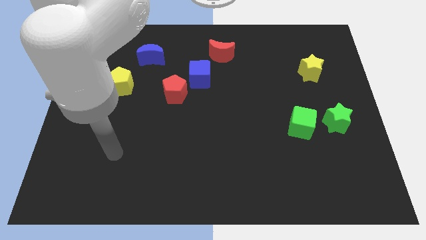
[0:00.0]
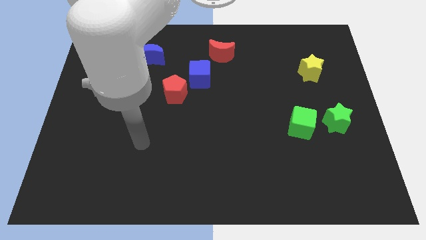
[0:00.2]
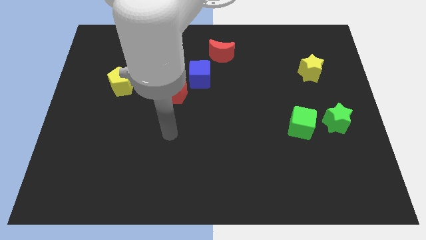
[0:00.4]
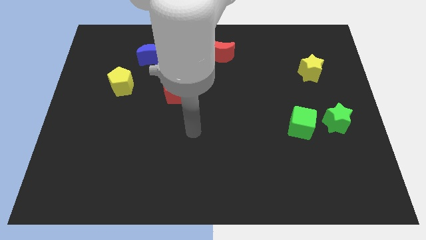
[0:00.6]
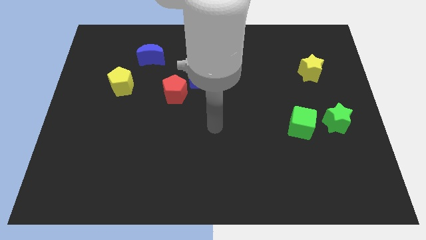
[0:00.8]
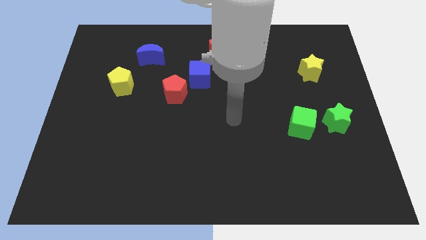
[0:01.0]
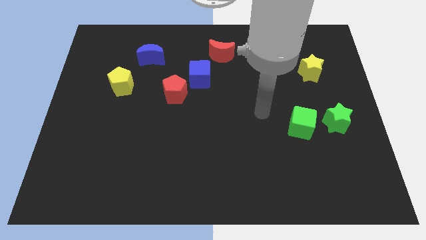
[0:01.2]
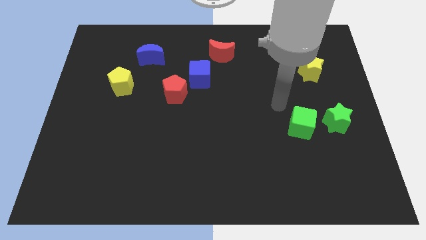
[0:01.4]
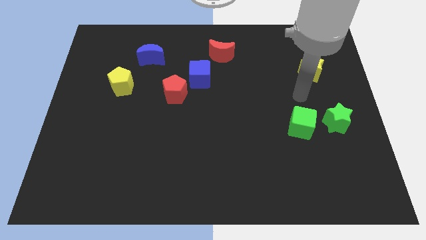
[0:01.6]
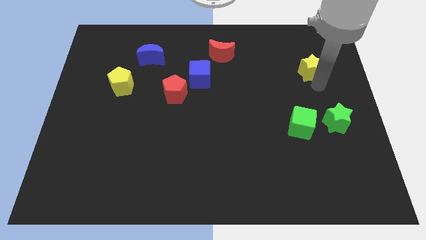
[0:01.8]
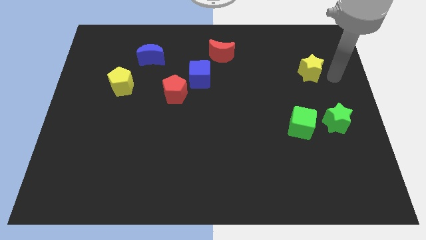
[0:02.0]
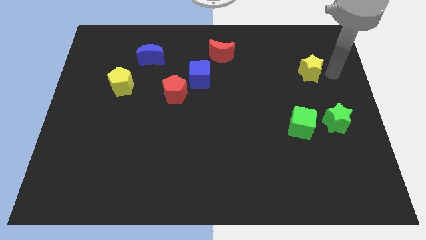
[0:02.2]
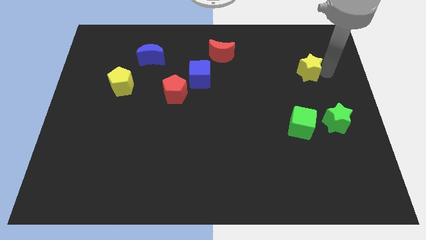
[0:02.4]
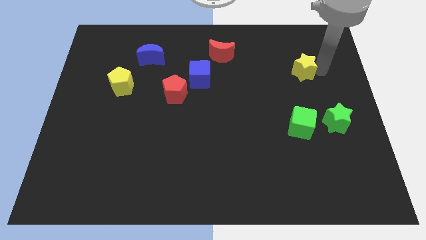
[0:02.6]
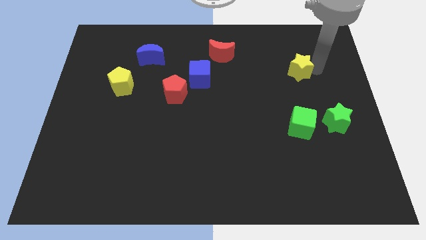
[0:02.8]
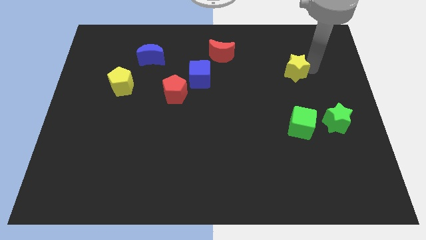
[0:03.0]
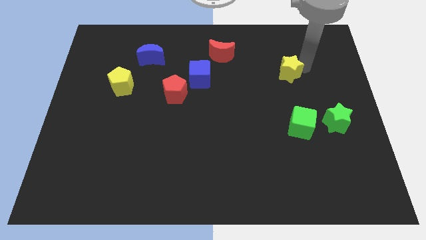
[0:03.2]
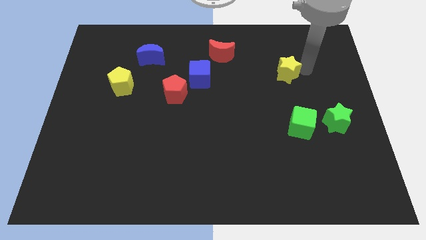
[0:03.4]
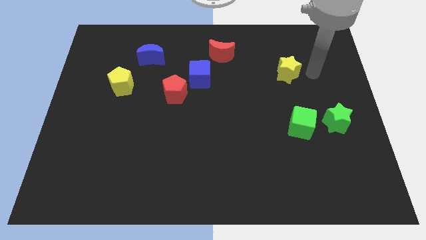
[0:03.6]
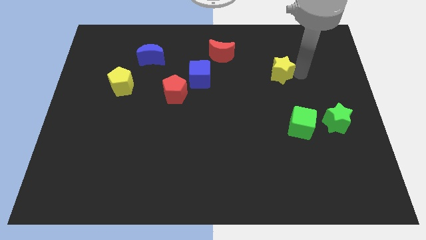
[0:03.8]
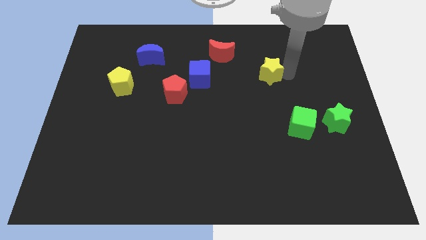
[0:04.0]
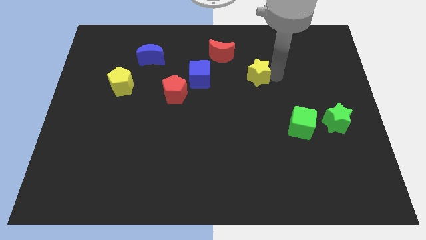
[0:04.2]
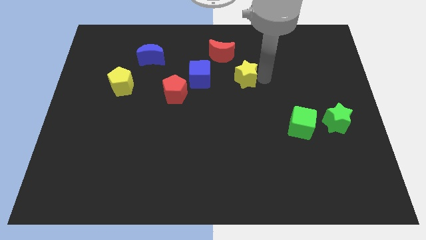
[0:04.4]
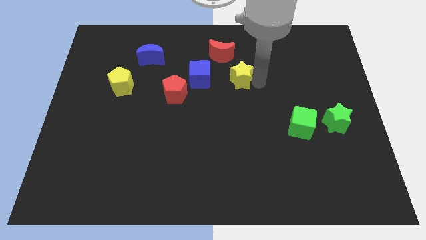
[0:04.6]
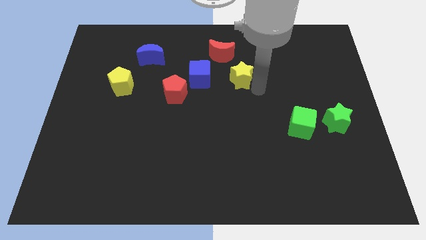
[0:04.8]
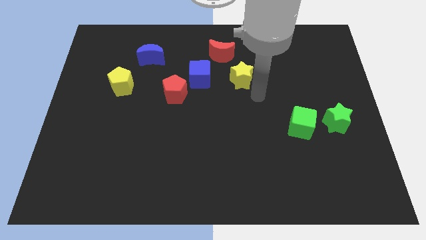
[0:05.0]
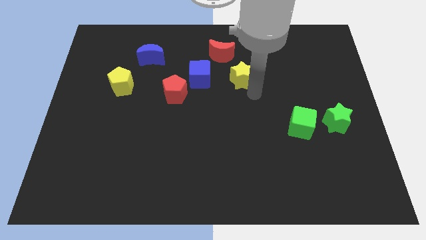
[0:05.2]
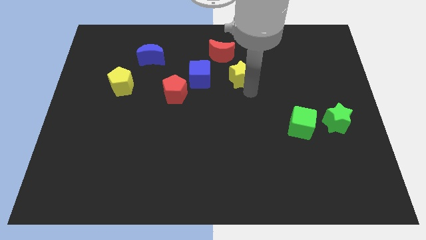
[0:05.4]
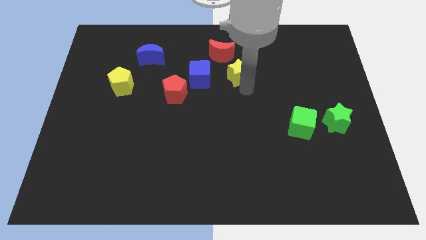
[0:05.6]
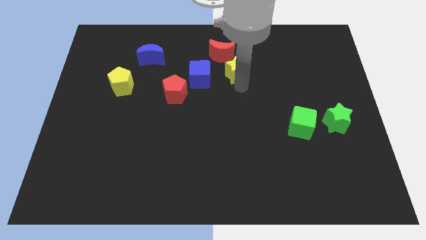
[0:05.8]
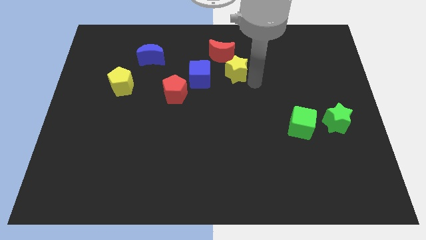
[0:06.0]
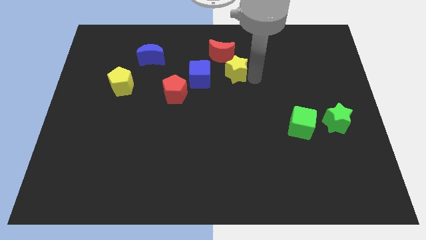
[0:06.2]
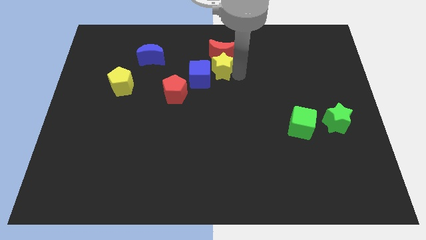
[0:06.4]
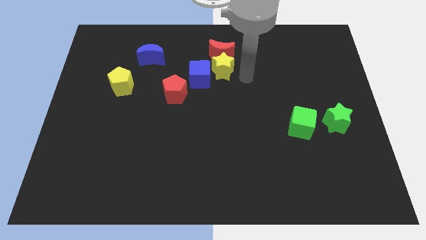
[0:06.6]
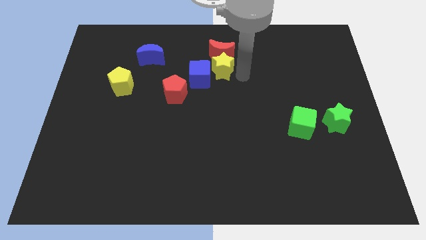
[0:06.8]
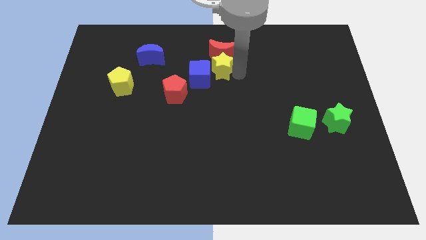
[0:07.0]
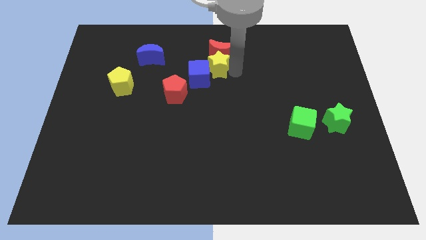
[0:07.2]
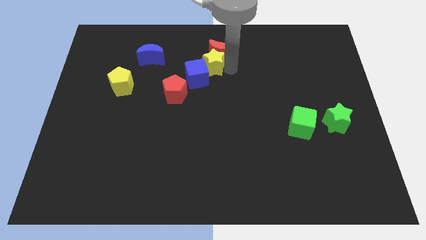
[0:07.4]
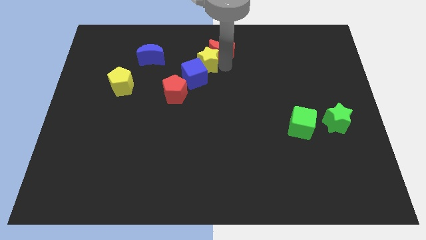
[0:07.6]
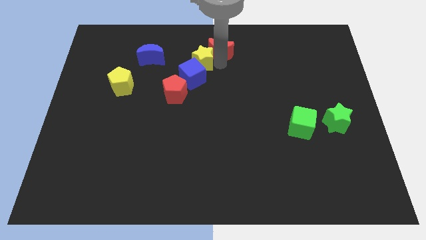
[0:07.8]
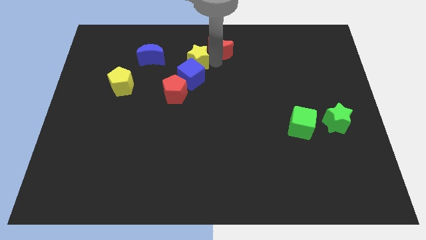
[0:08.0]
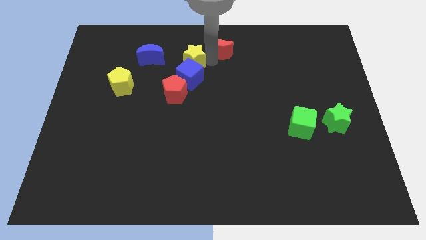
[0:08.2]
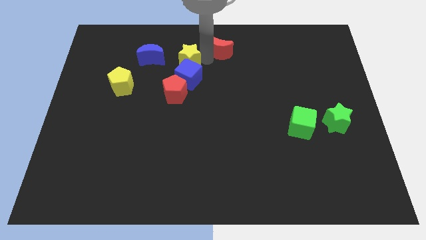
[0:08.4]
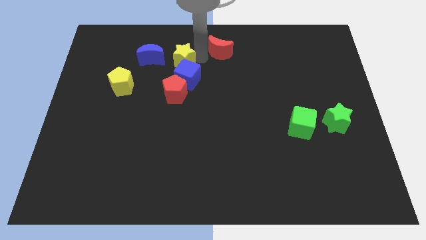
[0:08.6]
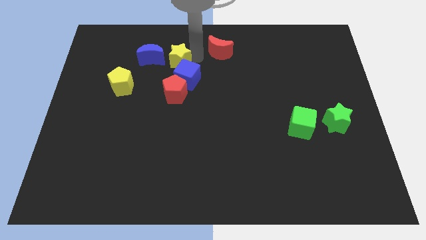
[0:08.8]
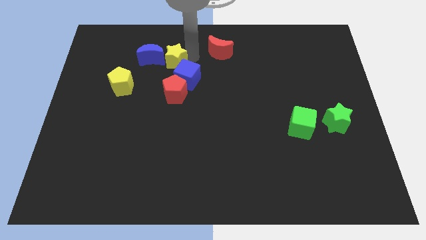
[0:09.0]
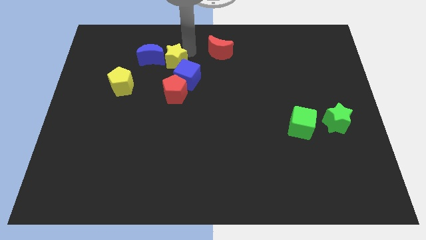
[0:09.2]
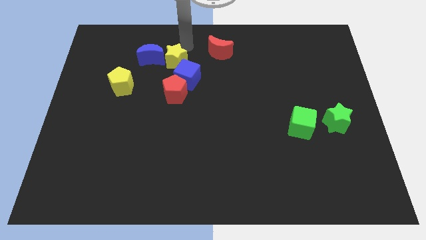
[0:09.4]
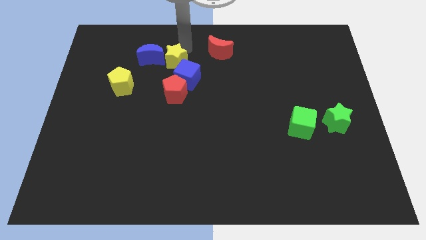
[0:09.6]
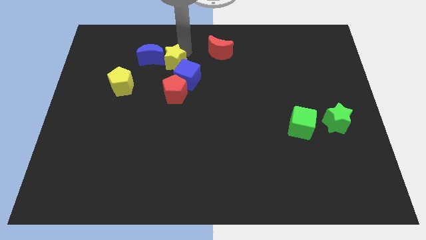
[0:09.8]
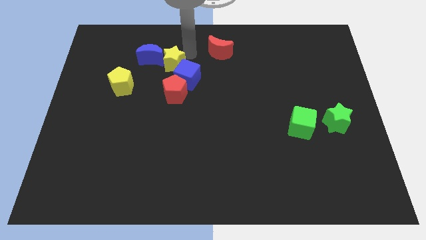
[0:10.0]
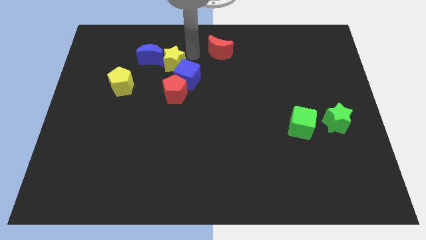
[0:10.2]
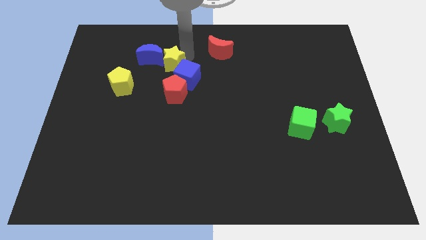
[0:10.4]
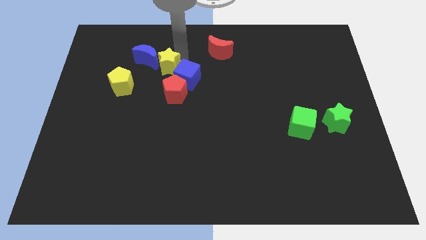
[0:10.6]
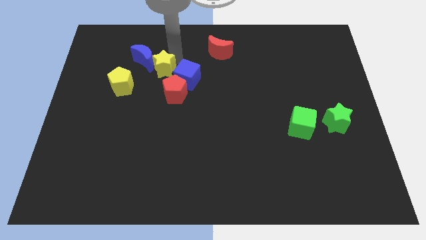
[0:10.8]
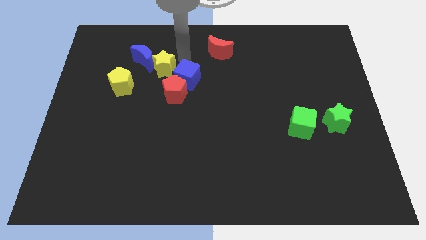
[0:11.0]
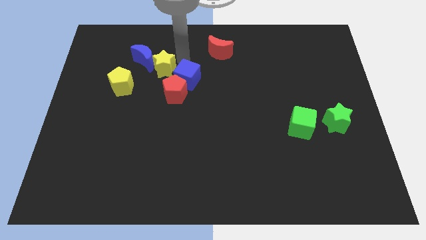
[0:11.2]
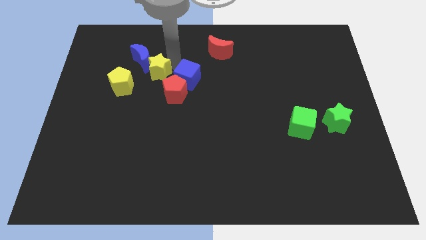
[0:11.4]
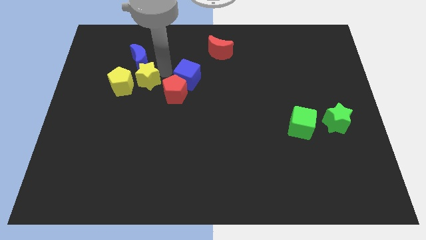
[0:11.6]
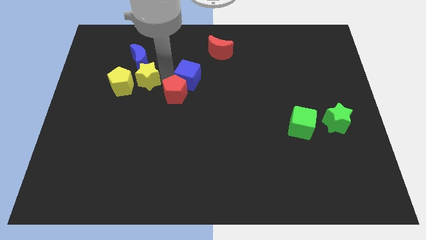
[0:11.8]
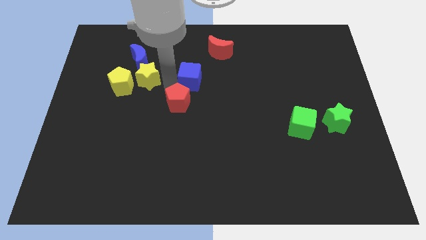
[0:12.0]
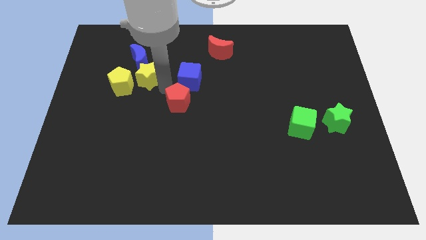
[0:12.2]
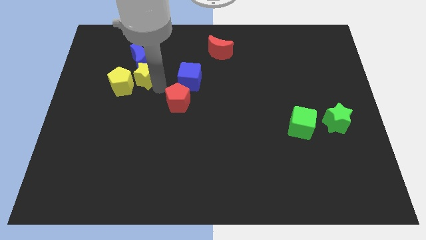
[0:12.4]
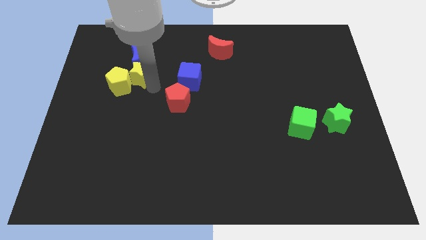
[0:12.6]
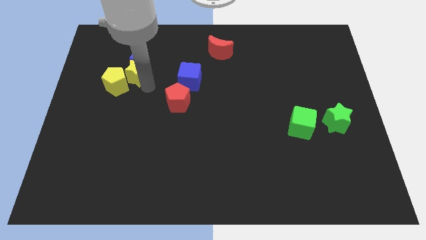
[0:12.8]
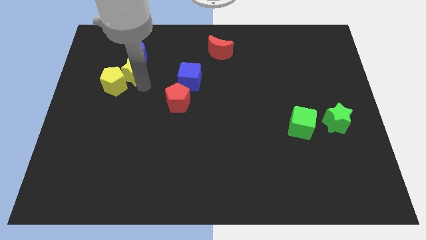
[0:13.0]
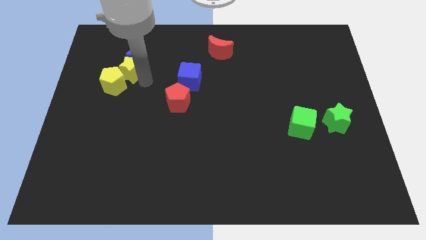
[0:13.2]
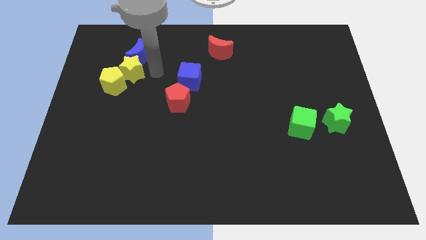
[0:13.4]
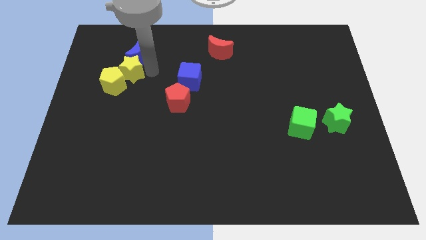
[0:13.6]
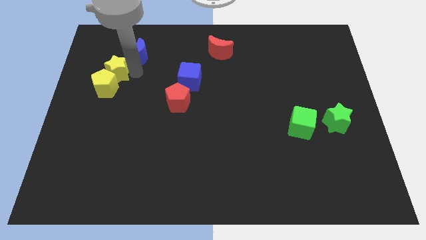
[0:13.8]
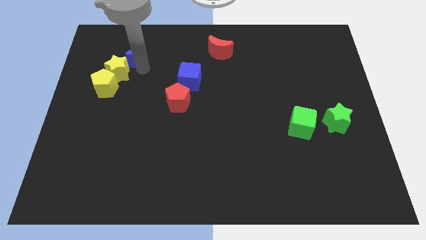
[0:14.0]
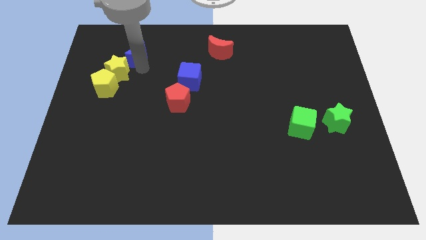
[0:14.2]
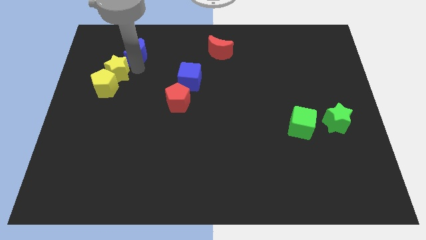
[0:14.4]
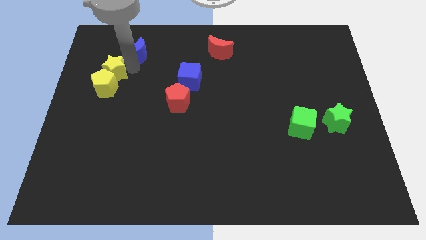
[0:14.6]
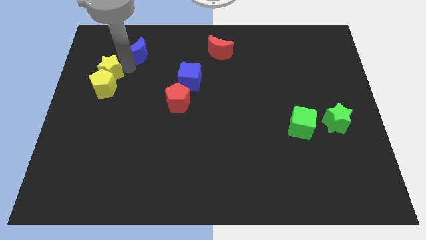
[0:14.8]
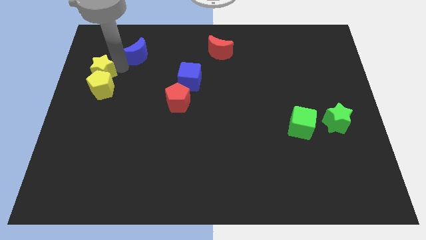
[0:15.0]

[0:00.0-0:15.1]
slide the yellow star to the center left
